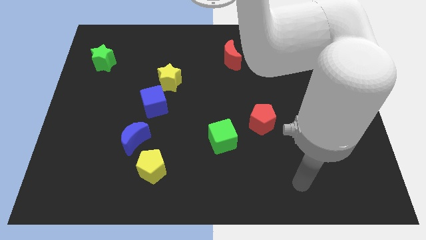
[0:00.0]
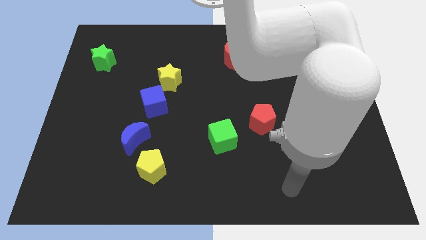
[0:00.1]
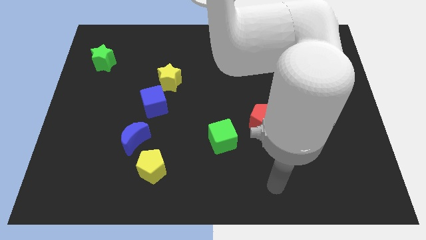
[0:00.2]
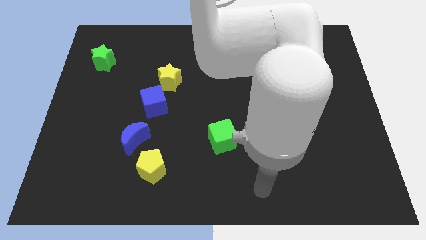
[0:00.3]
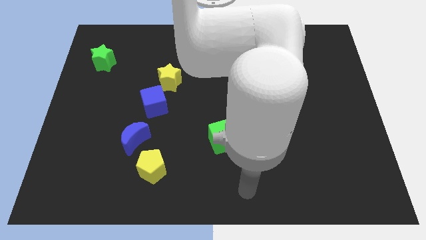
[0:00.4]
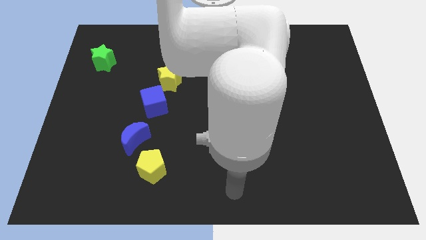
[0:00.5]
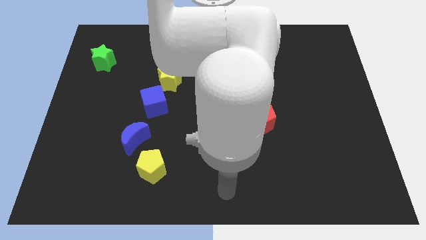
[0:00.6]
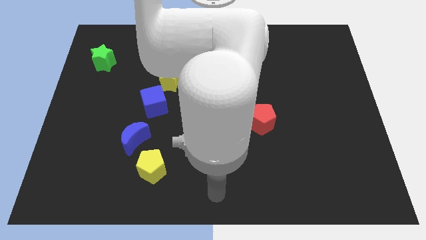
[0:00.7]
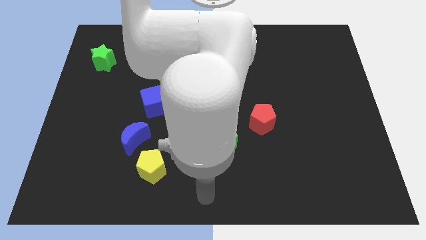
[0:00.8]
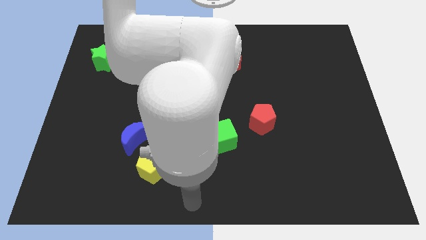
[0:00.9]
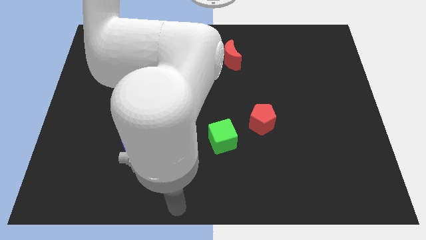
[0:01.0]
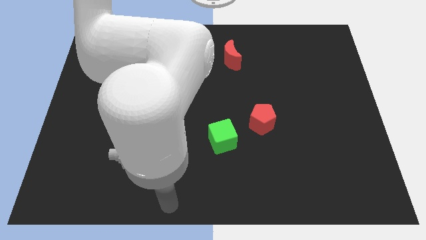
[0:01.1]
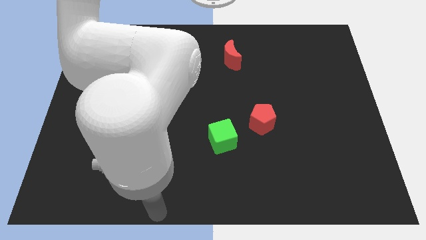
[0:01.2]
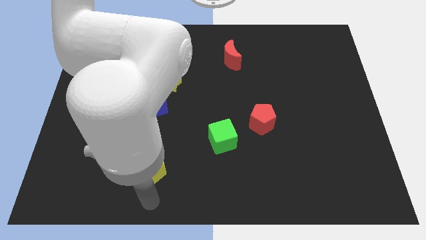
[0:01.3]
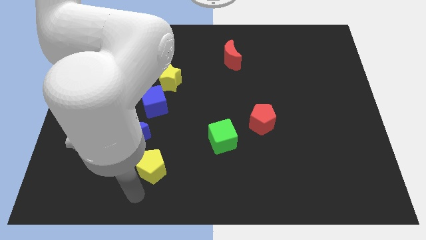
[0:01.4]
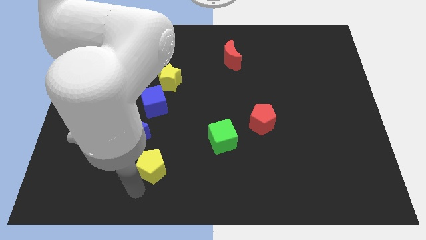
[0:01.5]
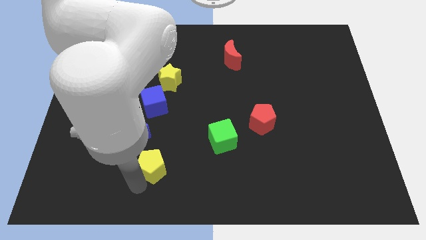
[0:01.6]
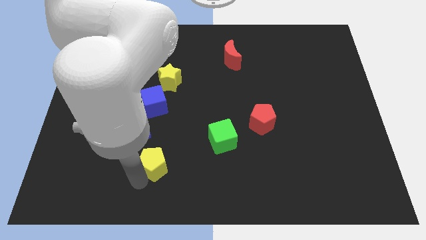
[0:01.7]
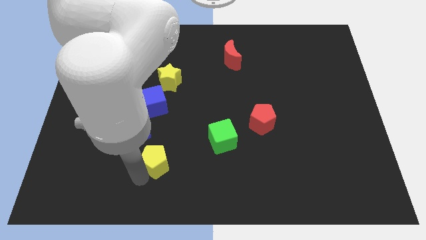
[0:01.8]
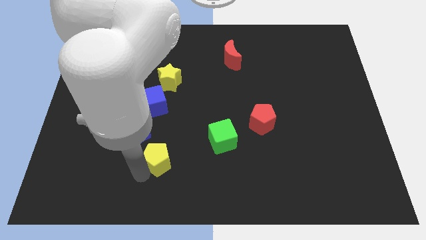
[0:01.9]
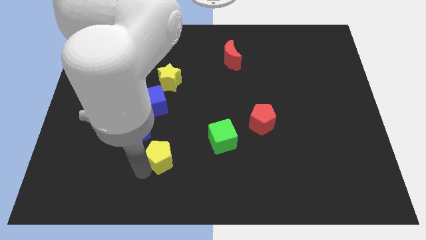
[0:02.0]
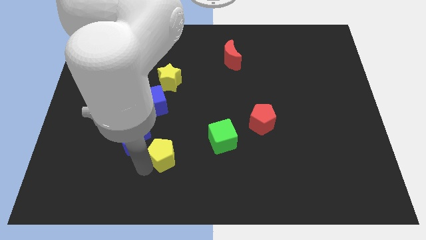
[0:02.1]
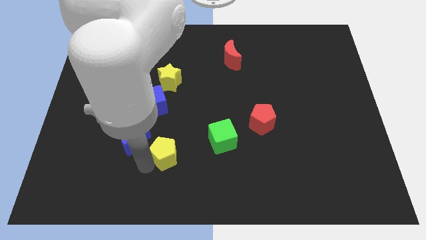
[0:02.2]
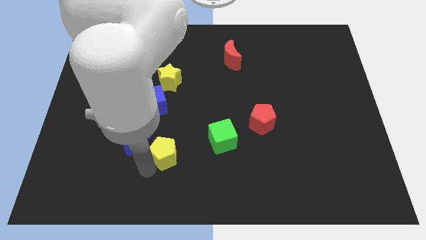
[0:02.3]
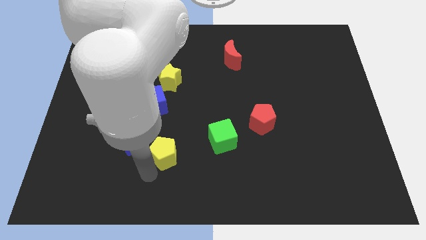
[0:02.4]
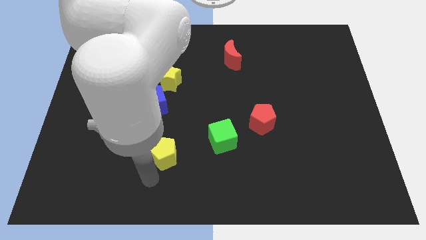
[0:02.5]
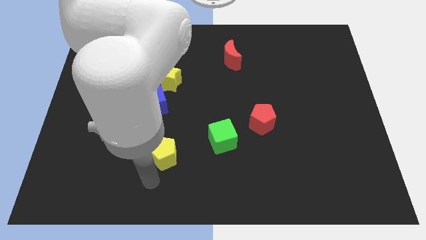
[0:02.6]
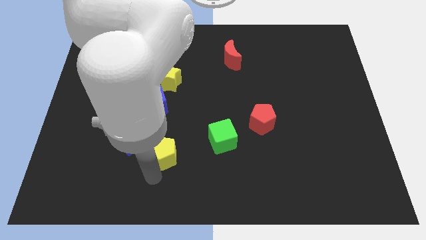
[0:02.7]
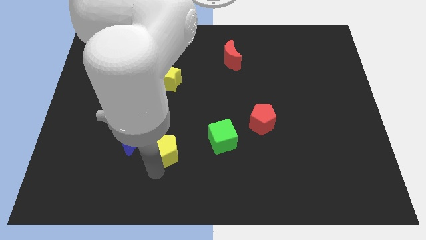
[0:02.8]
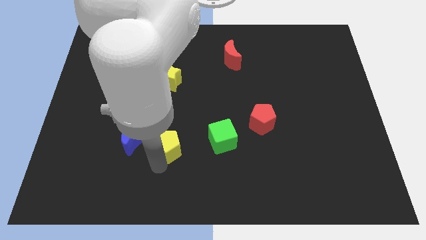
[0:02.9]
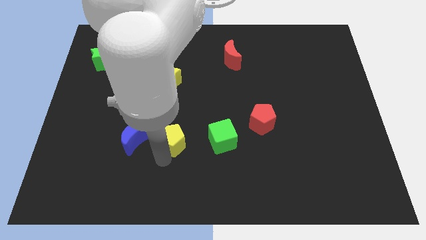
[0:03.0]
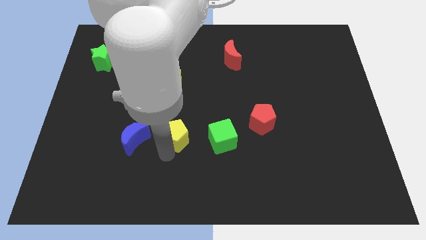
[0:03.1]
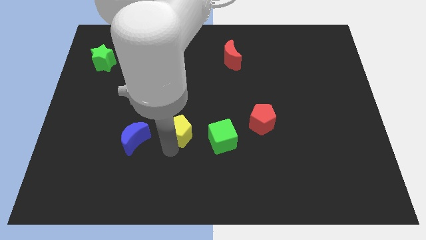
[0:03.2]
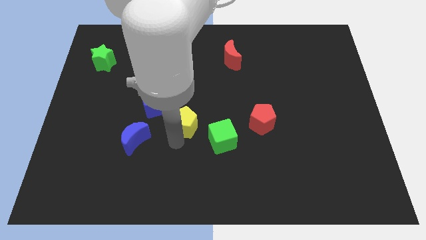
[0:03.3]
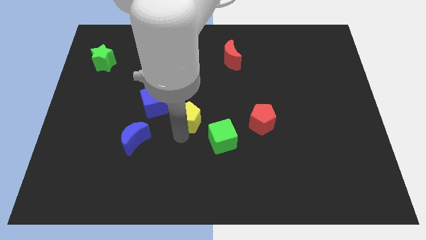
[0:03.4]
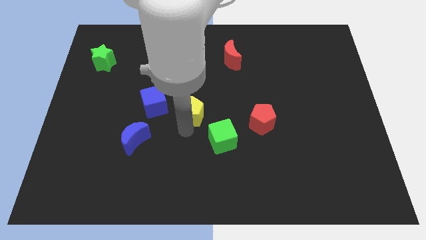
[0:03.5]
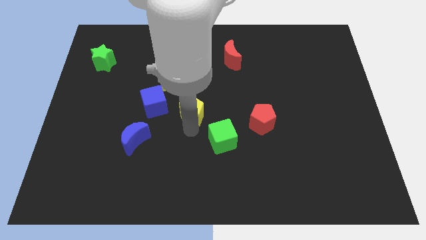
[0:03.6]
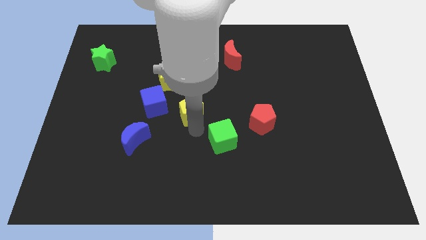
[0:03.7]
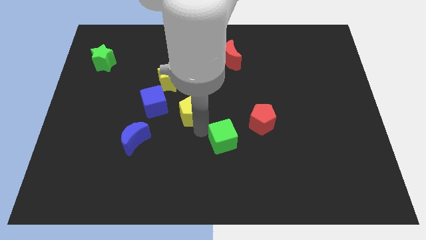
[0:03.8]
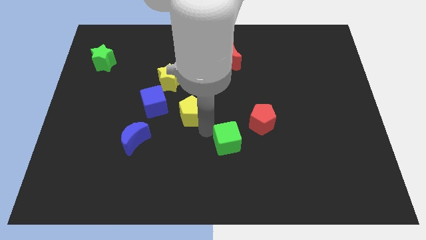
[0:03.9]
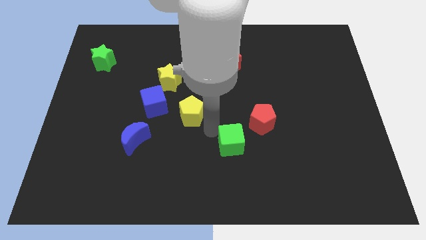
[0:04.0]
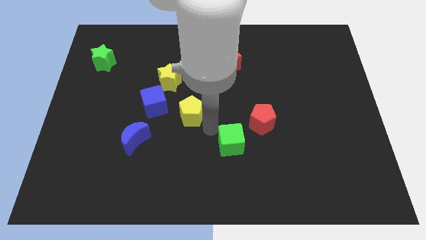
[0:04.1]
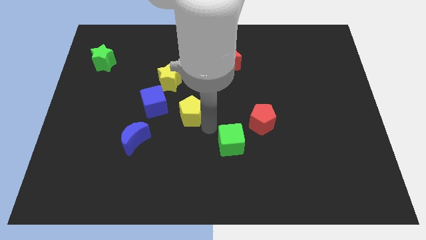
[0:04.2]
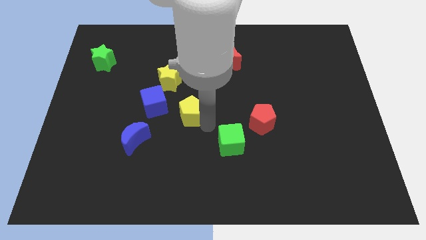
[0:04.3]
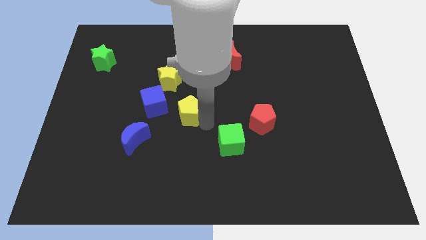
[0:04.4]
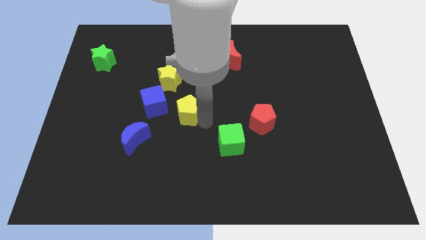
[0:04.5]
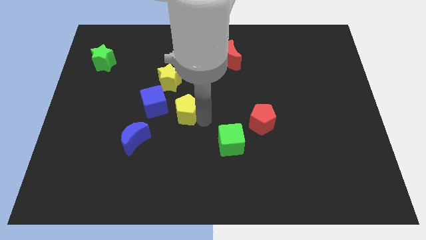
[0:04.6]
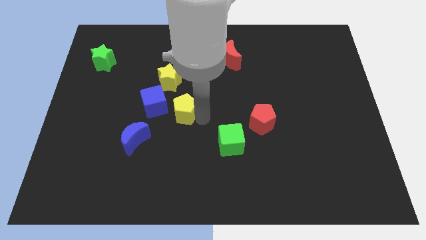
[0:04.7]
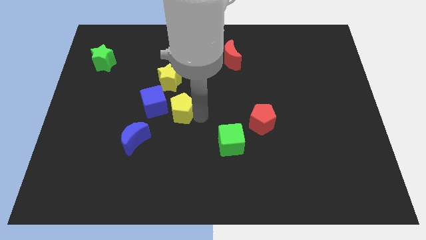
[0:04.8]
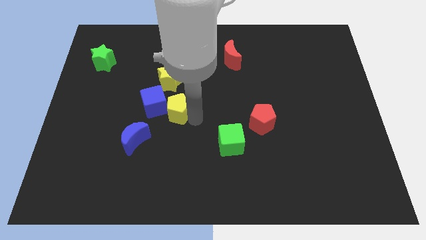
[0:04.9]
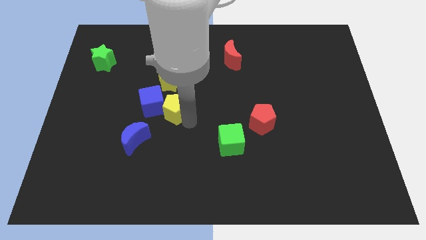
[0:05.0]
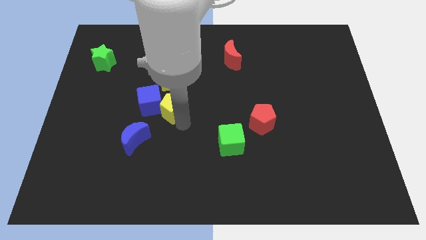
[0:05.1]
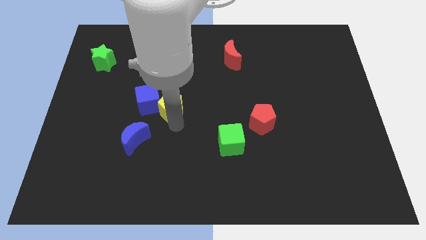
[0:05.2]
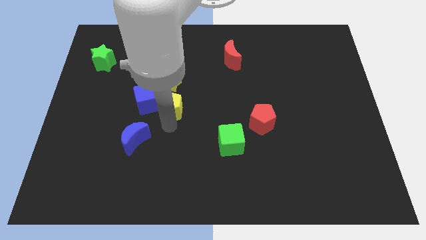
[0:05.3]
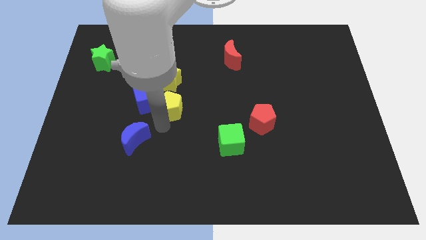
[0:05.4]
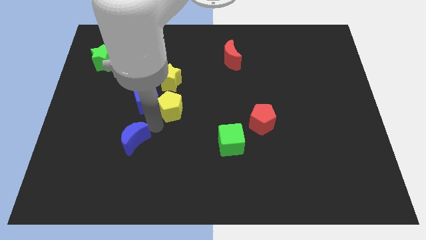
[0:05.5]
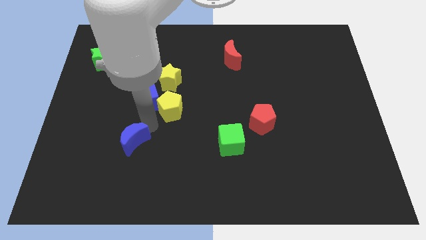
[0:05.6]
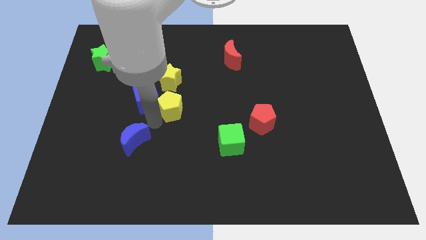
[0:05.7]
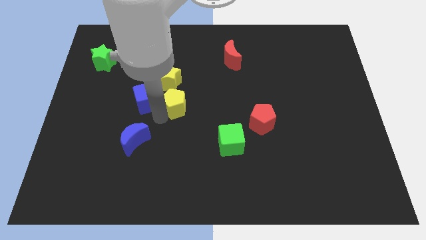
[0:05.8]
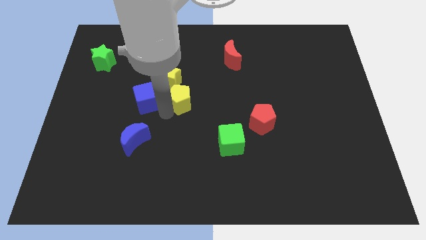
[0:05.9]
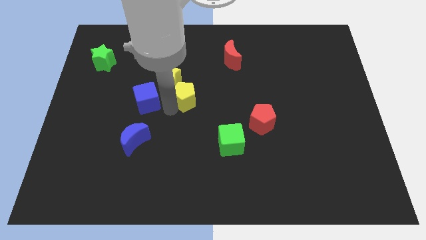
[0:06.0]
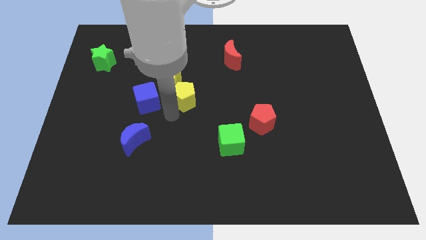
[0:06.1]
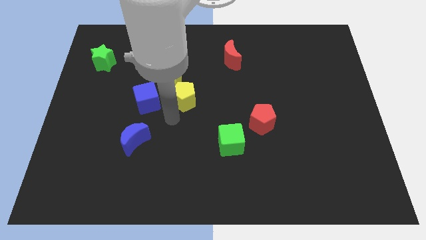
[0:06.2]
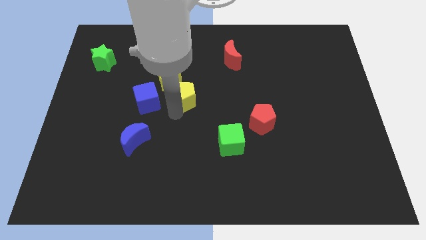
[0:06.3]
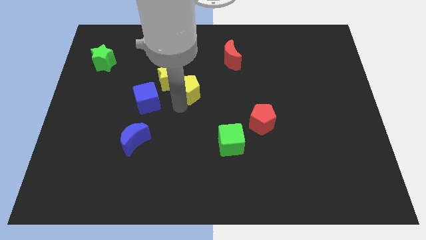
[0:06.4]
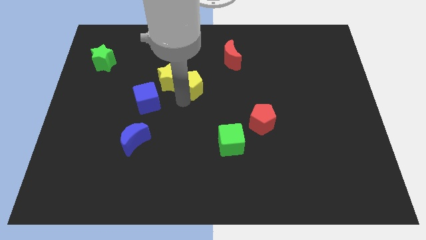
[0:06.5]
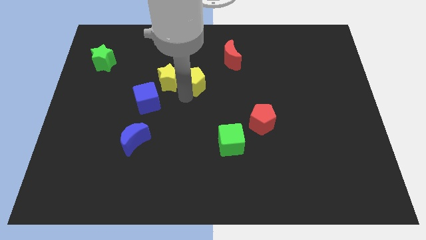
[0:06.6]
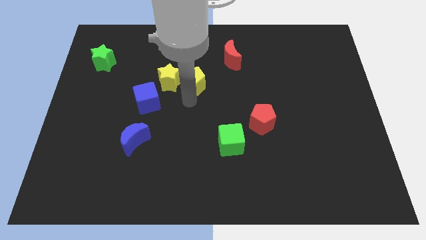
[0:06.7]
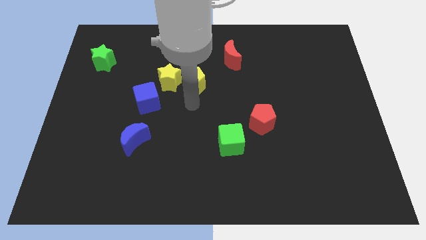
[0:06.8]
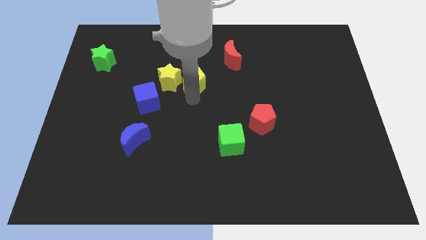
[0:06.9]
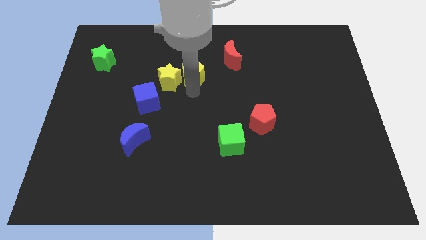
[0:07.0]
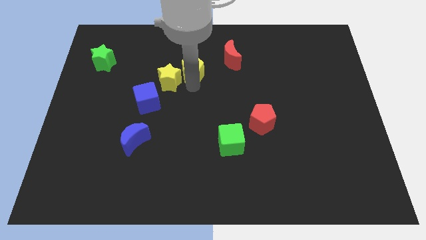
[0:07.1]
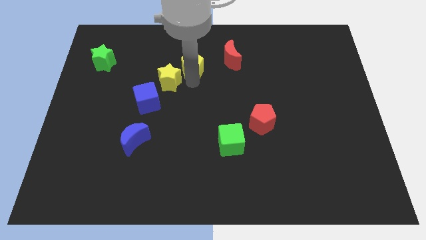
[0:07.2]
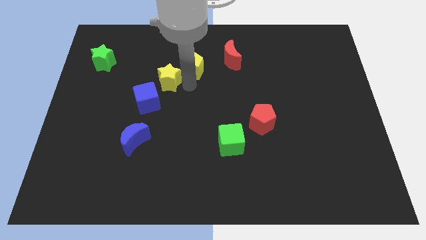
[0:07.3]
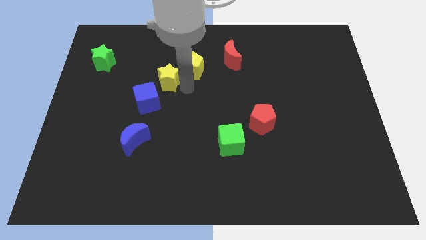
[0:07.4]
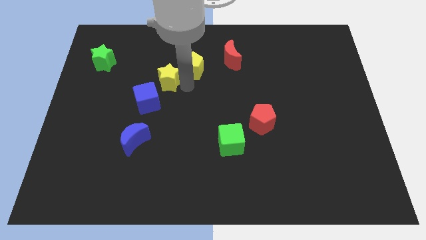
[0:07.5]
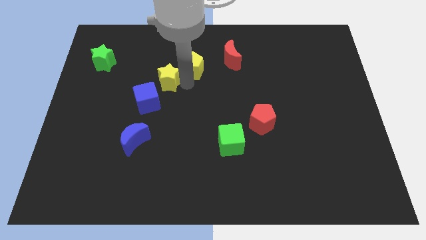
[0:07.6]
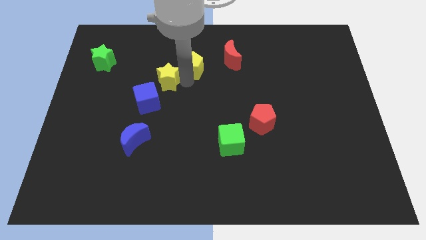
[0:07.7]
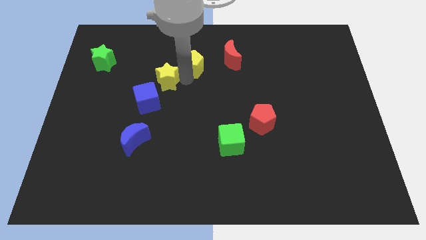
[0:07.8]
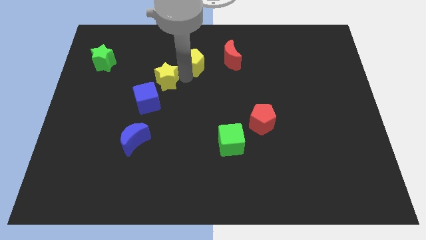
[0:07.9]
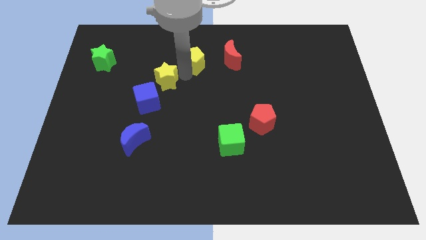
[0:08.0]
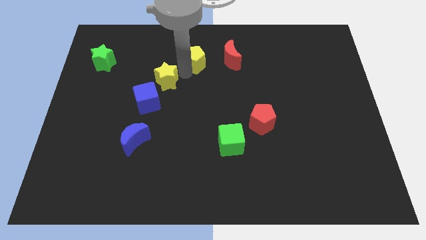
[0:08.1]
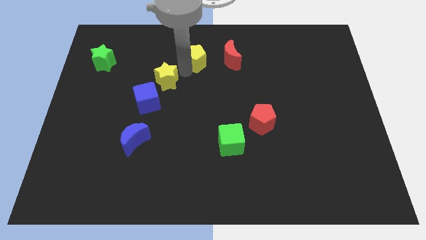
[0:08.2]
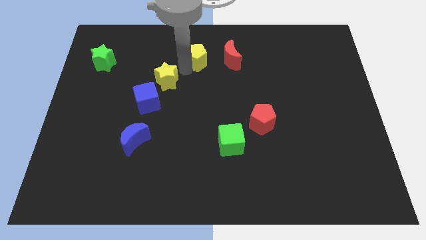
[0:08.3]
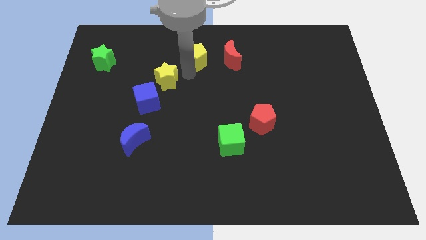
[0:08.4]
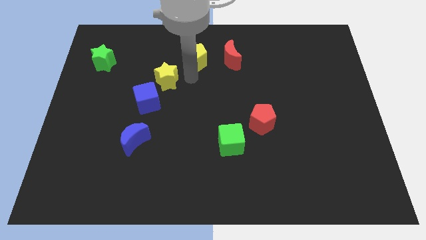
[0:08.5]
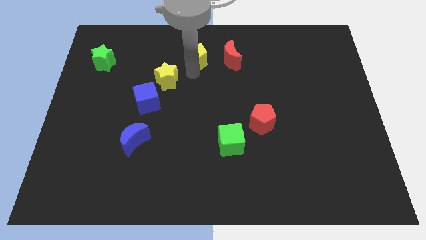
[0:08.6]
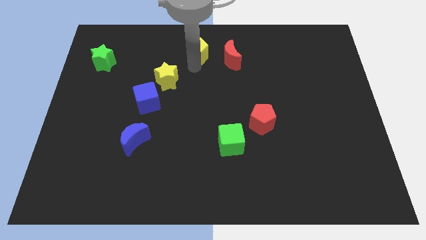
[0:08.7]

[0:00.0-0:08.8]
put the yellow pentagon to the top side
